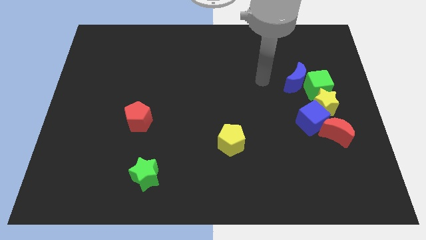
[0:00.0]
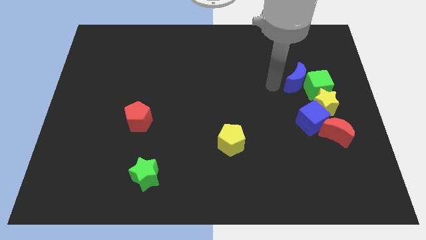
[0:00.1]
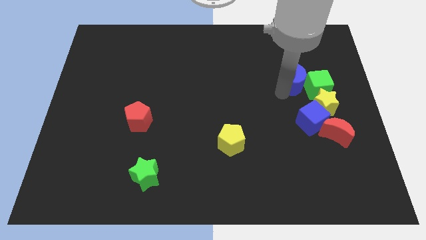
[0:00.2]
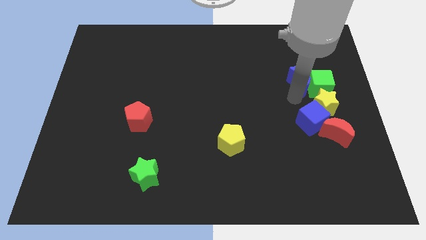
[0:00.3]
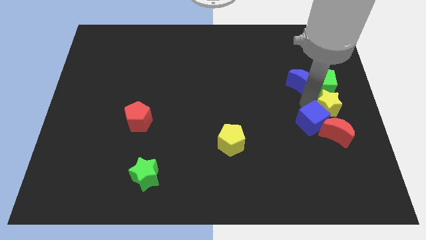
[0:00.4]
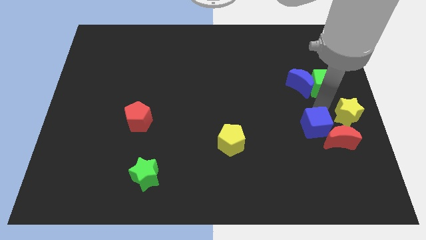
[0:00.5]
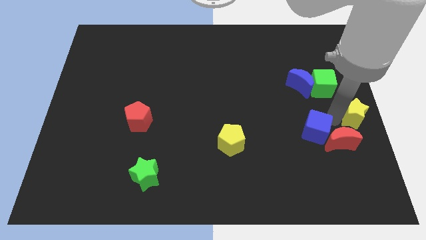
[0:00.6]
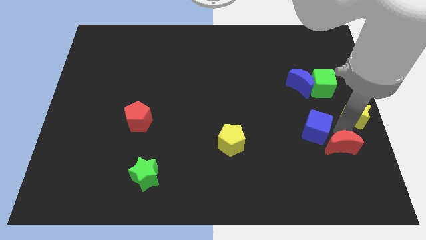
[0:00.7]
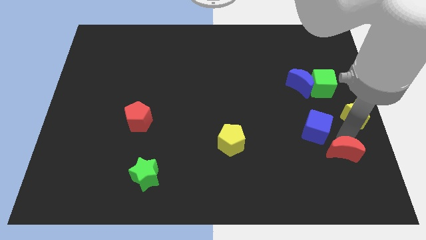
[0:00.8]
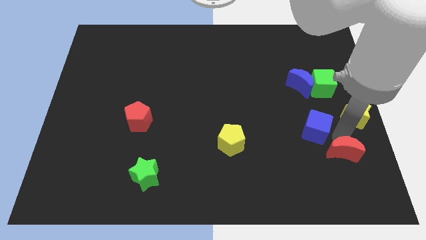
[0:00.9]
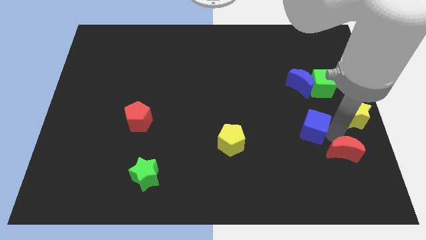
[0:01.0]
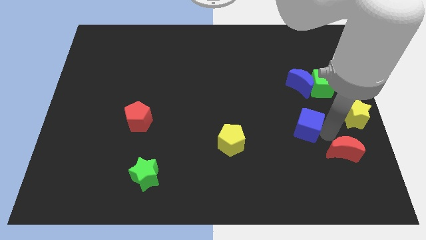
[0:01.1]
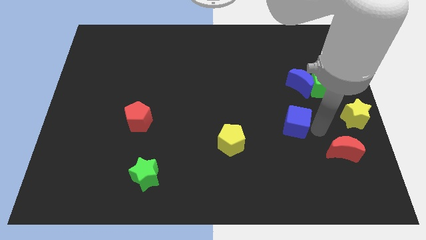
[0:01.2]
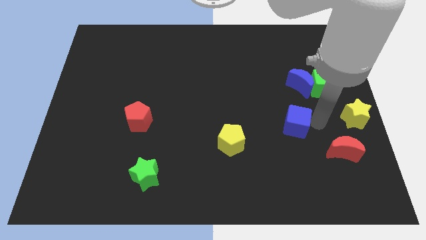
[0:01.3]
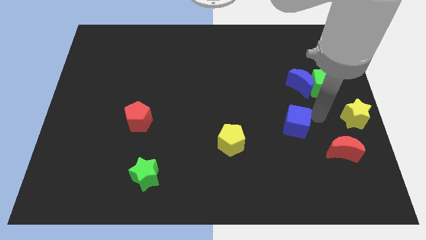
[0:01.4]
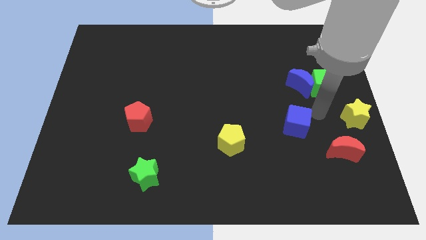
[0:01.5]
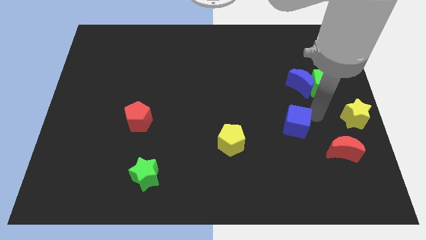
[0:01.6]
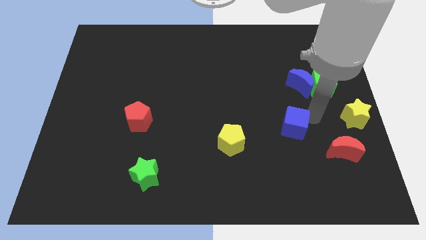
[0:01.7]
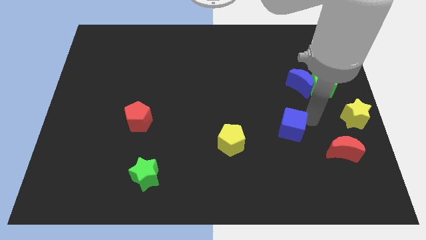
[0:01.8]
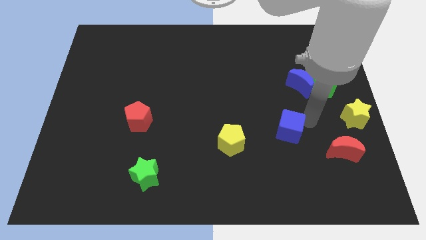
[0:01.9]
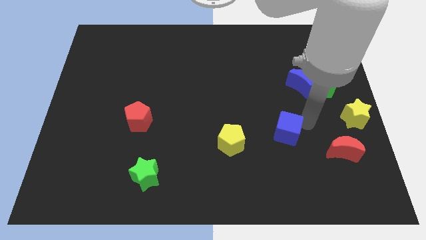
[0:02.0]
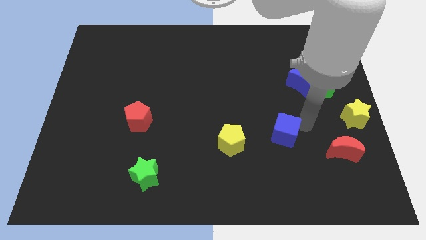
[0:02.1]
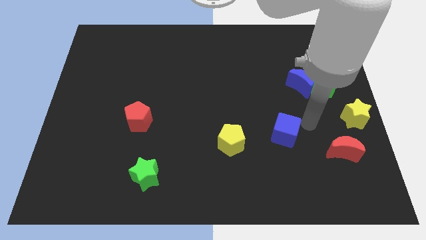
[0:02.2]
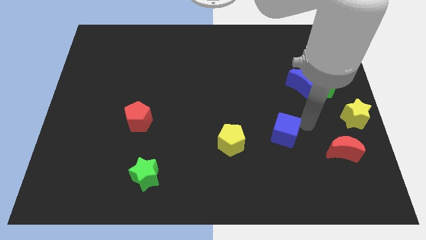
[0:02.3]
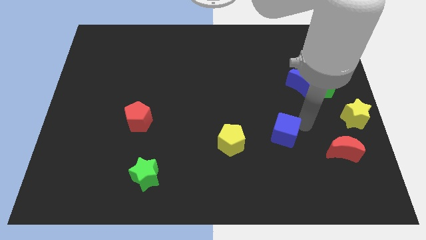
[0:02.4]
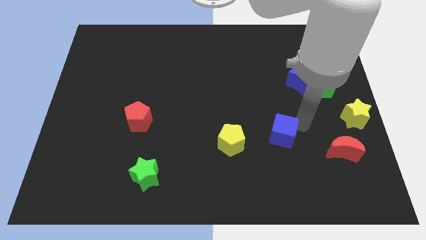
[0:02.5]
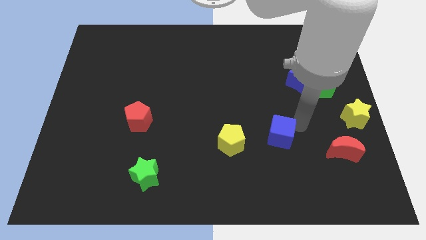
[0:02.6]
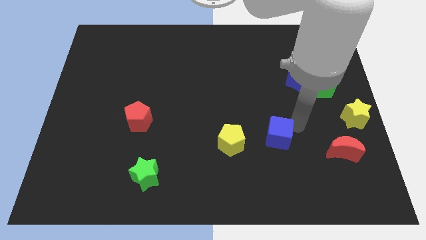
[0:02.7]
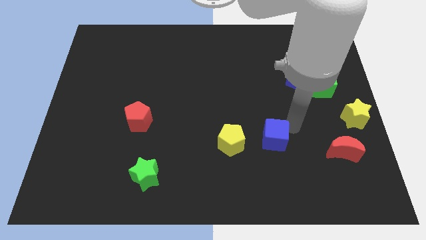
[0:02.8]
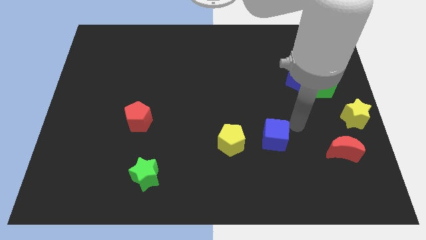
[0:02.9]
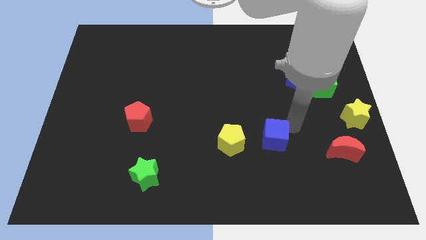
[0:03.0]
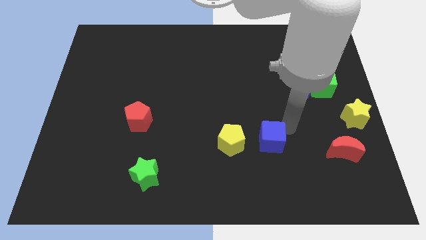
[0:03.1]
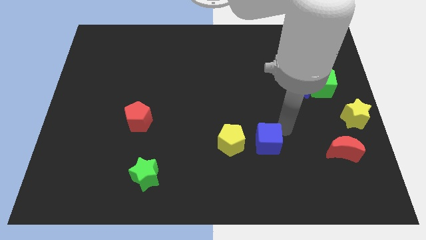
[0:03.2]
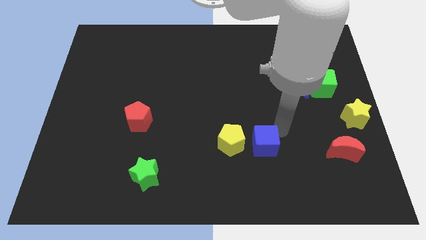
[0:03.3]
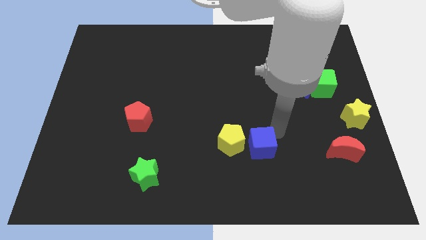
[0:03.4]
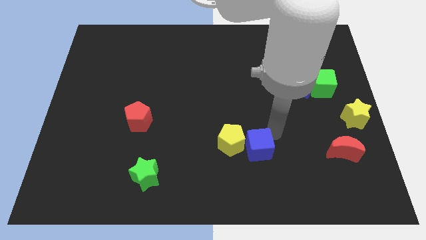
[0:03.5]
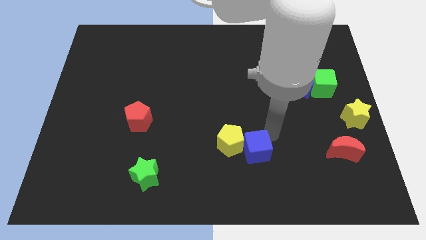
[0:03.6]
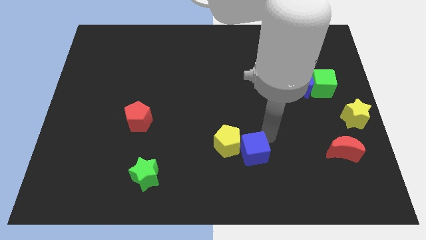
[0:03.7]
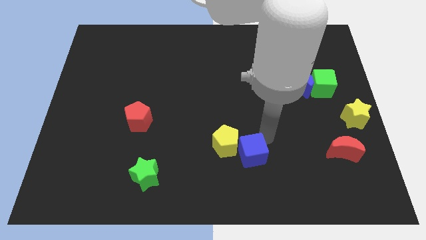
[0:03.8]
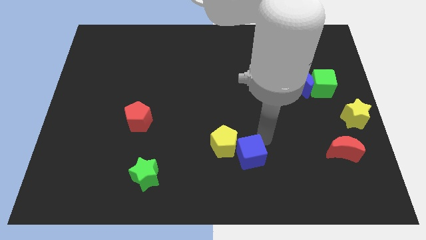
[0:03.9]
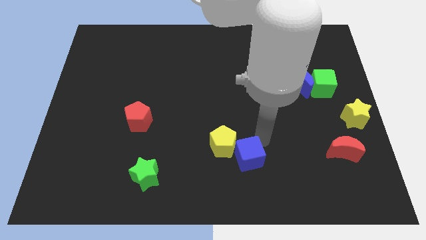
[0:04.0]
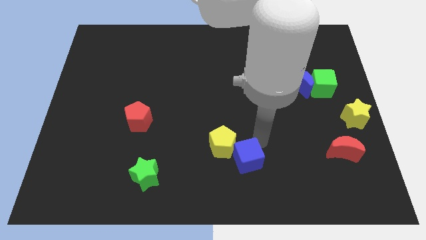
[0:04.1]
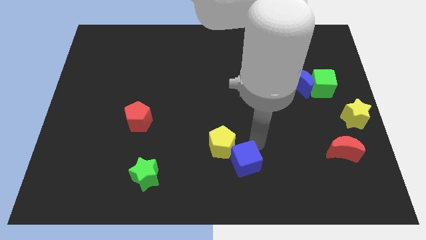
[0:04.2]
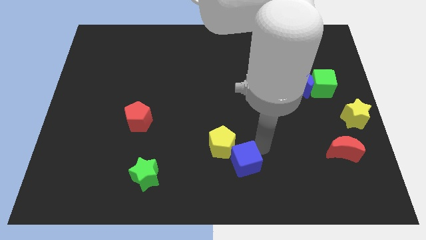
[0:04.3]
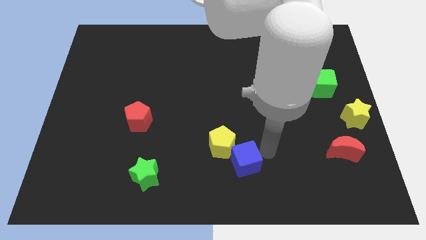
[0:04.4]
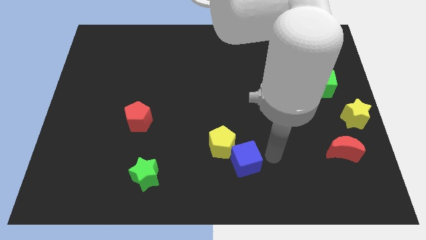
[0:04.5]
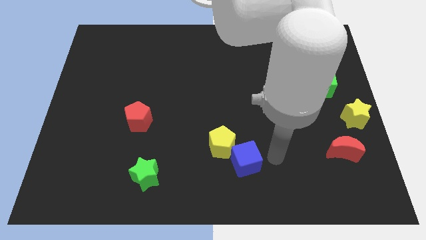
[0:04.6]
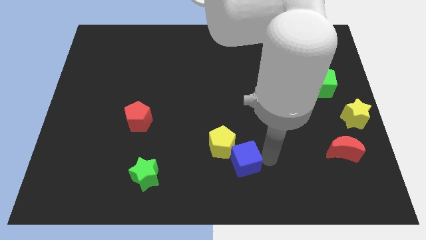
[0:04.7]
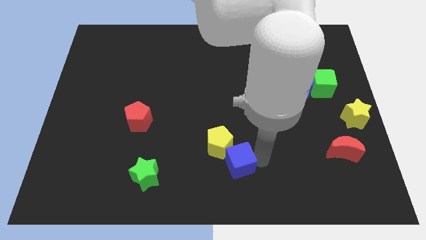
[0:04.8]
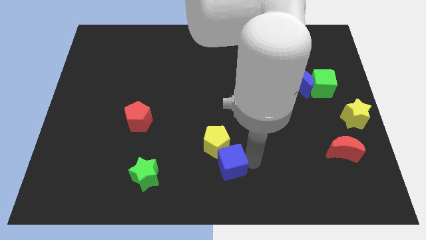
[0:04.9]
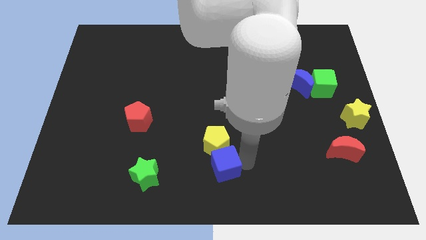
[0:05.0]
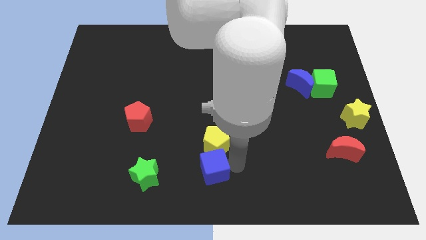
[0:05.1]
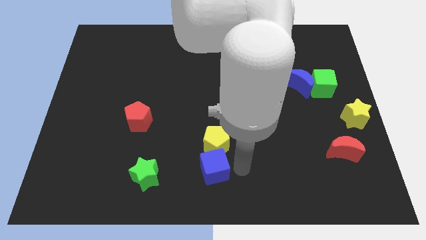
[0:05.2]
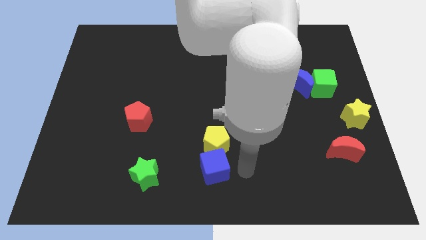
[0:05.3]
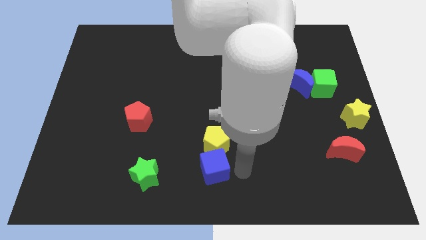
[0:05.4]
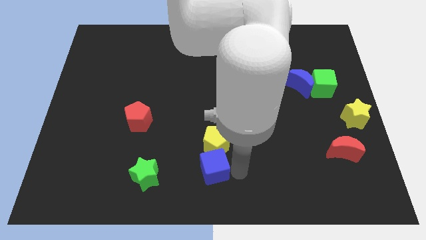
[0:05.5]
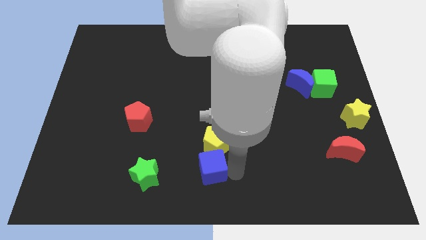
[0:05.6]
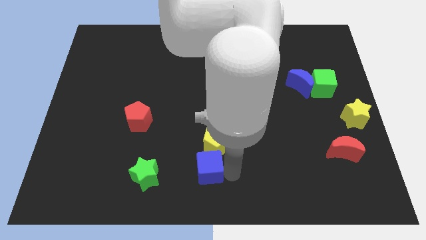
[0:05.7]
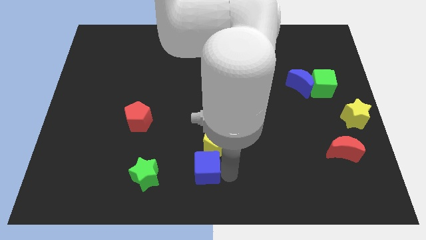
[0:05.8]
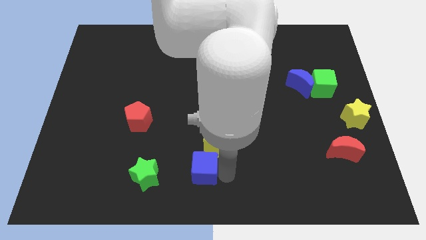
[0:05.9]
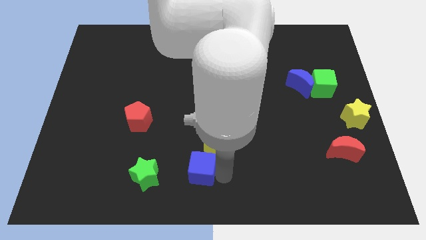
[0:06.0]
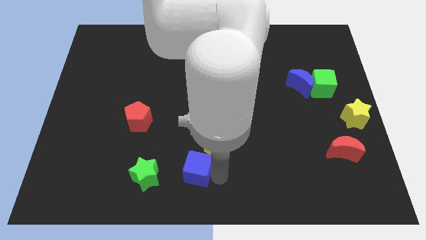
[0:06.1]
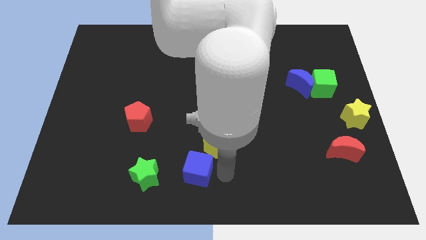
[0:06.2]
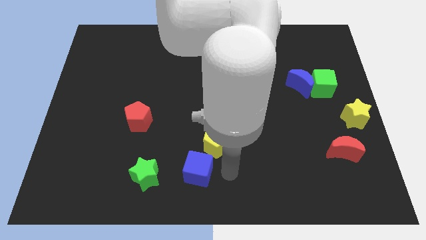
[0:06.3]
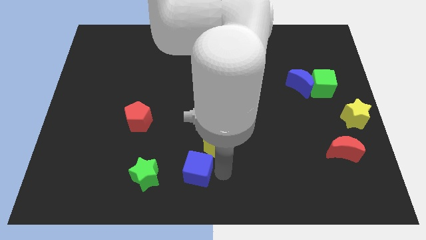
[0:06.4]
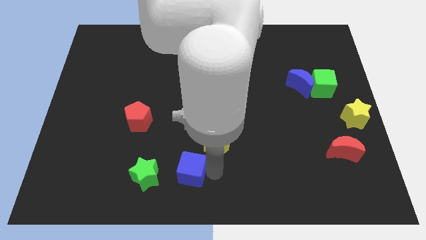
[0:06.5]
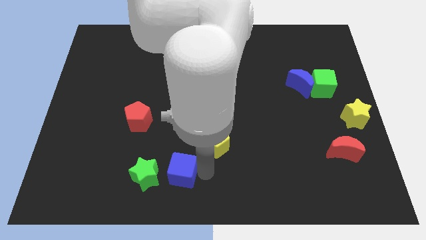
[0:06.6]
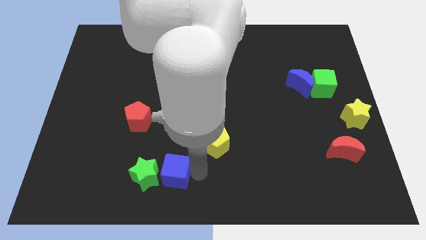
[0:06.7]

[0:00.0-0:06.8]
move the blue cube towards the green star

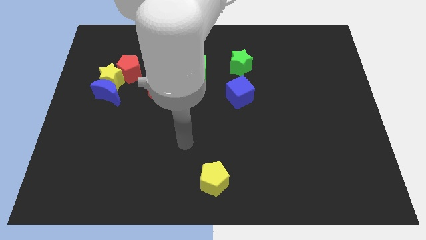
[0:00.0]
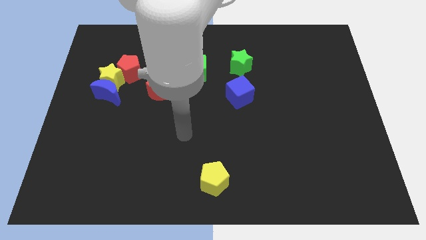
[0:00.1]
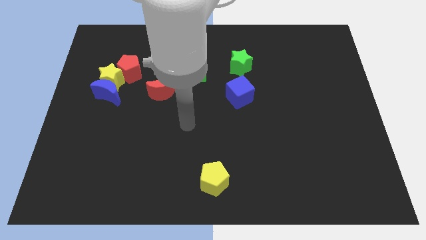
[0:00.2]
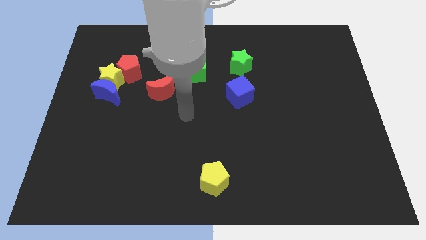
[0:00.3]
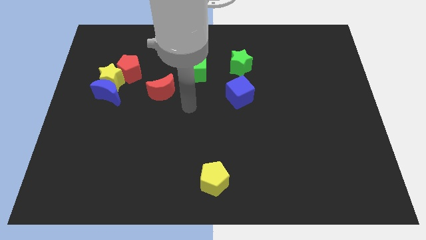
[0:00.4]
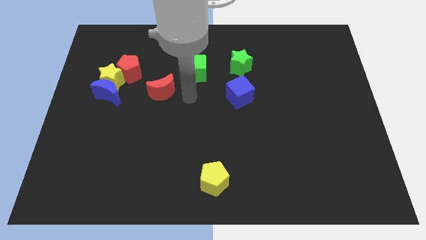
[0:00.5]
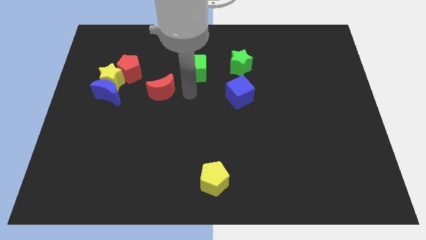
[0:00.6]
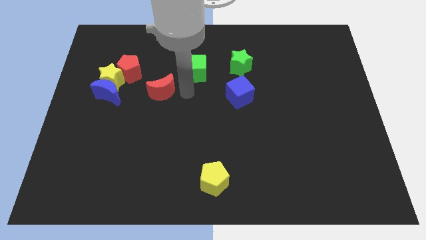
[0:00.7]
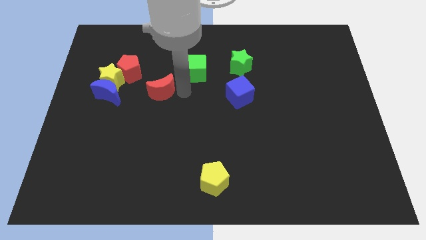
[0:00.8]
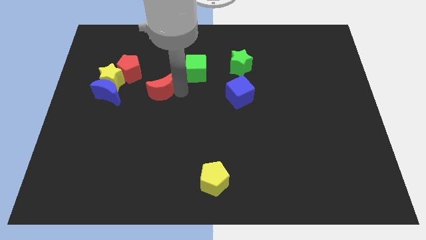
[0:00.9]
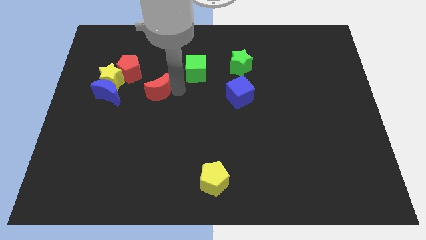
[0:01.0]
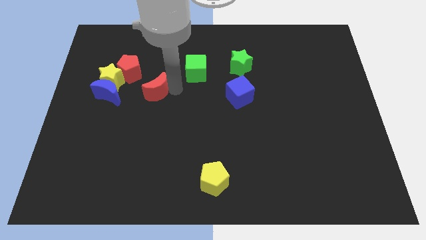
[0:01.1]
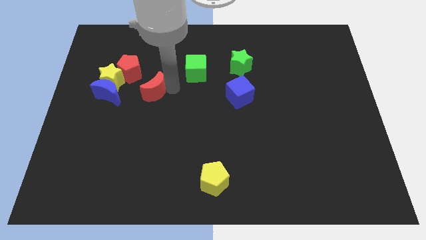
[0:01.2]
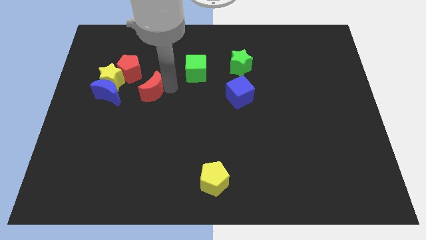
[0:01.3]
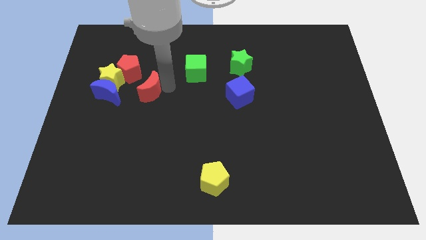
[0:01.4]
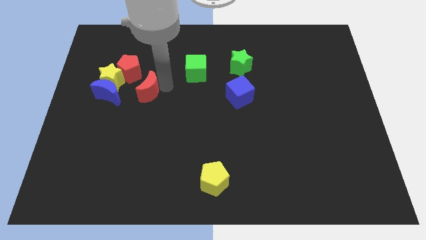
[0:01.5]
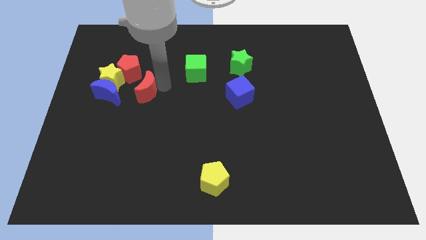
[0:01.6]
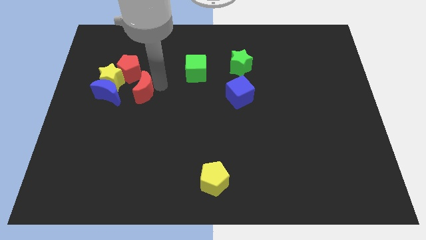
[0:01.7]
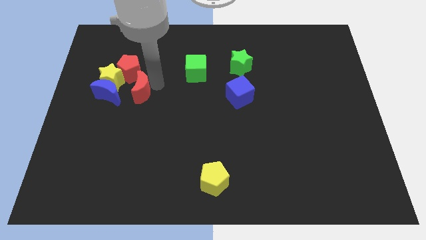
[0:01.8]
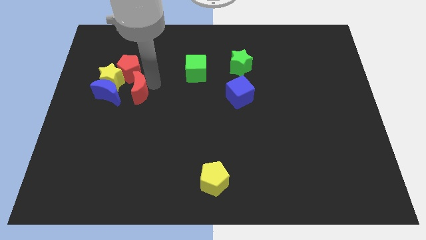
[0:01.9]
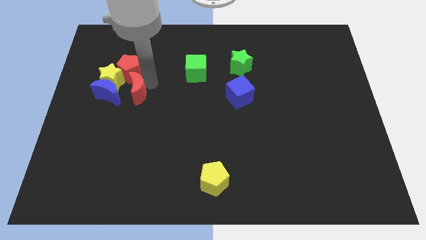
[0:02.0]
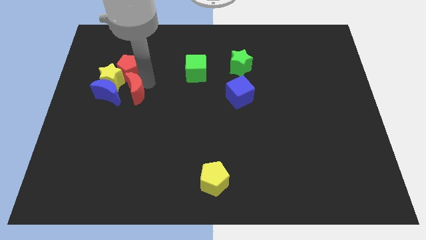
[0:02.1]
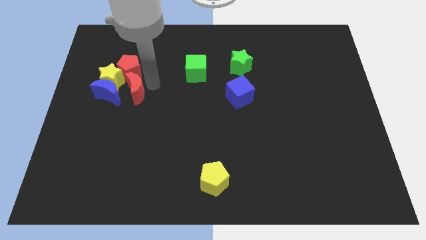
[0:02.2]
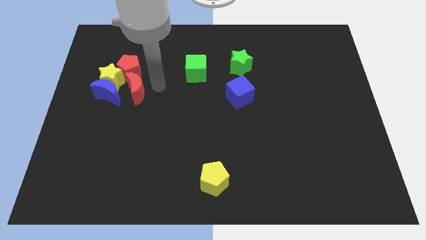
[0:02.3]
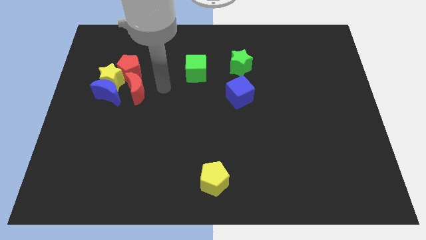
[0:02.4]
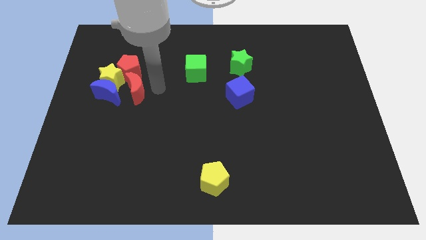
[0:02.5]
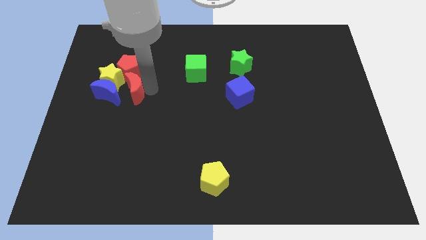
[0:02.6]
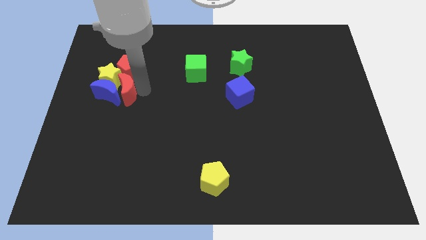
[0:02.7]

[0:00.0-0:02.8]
push the red moon next to the blue moon
